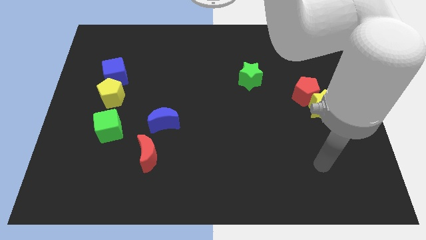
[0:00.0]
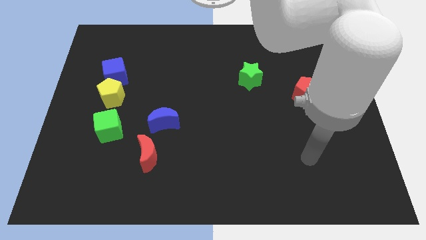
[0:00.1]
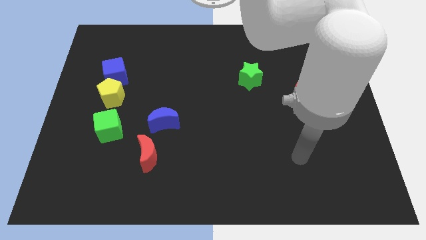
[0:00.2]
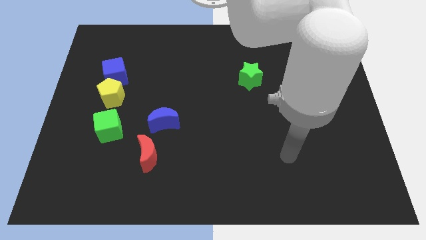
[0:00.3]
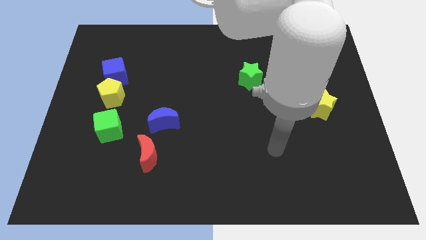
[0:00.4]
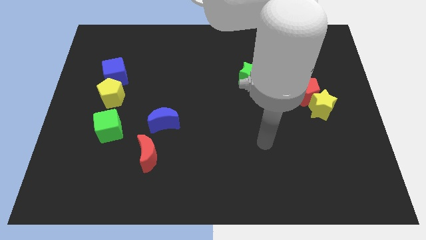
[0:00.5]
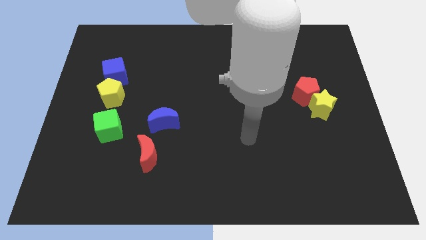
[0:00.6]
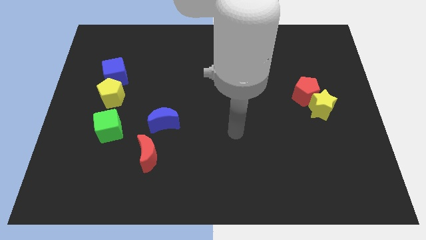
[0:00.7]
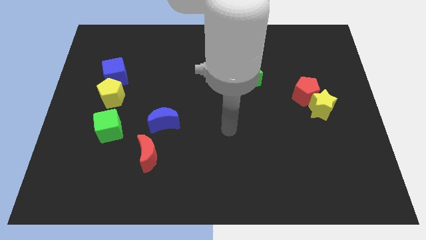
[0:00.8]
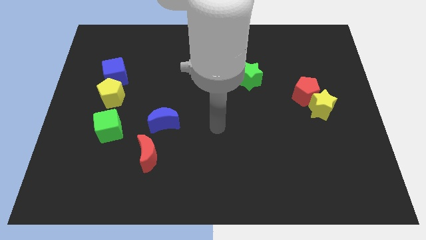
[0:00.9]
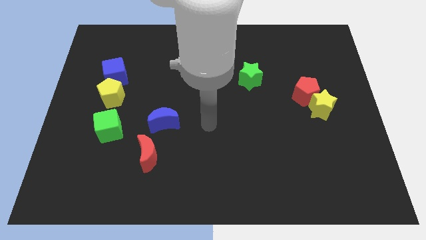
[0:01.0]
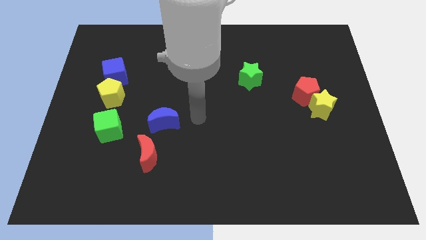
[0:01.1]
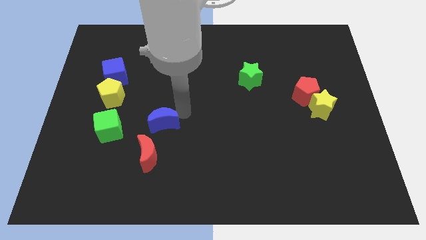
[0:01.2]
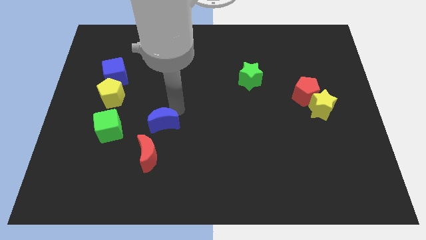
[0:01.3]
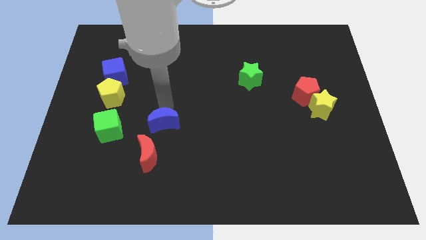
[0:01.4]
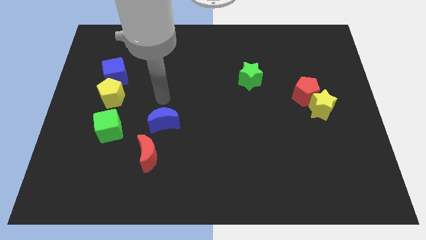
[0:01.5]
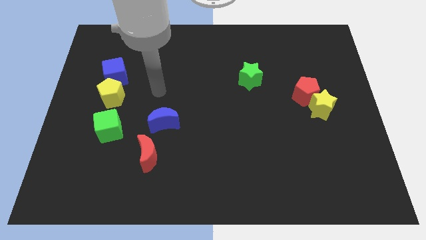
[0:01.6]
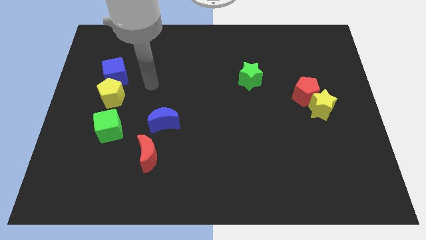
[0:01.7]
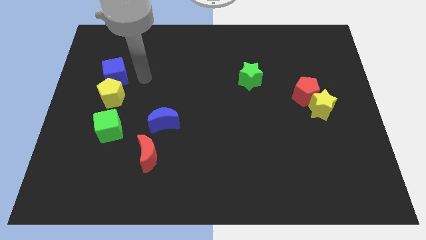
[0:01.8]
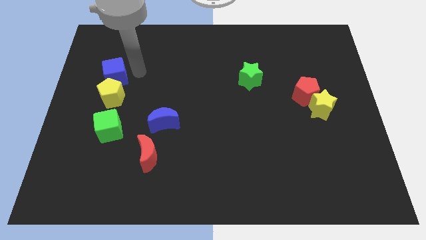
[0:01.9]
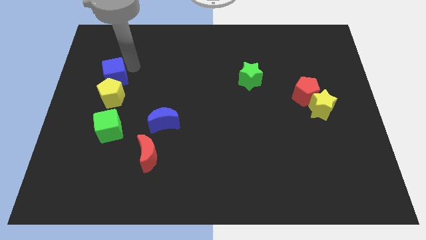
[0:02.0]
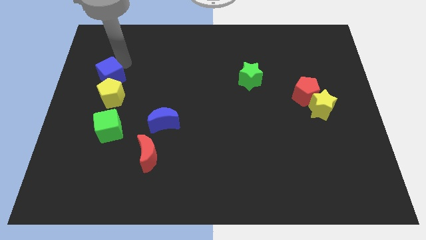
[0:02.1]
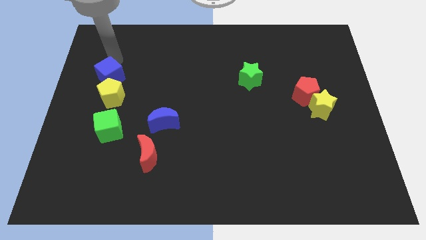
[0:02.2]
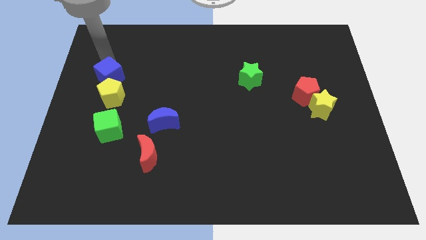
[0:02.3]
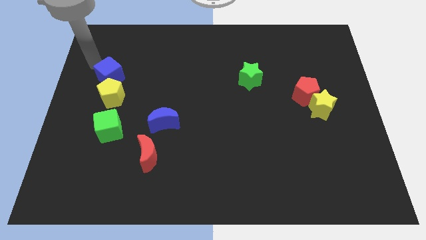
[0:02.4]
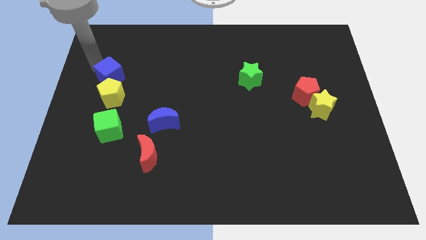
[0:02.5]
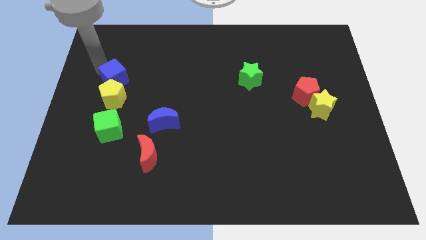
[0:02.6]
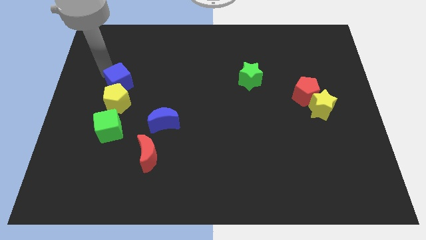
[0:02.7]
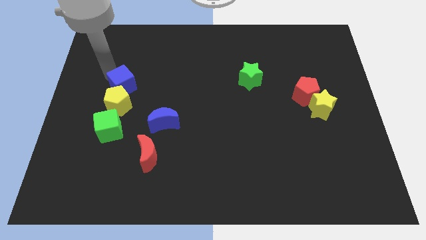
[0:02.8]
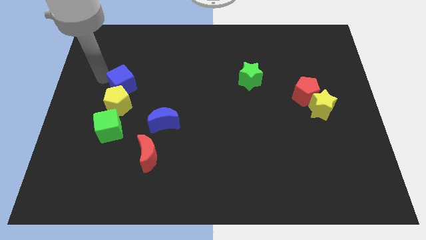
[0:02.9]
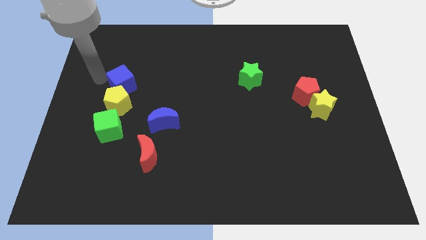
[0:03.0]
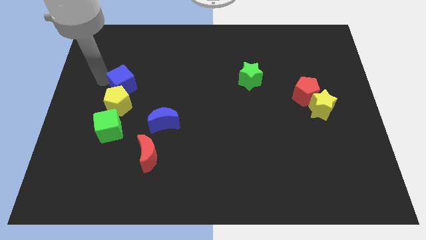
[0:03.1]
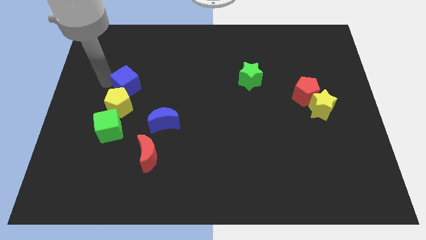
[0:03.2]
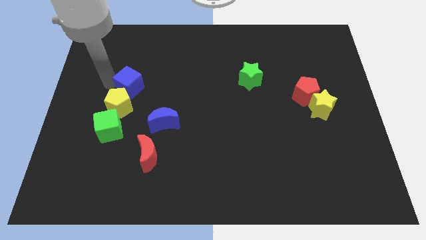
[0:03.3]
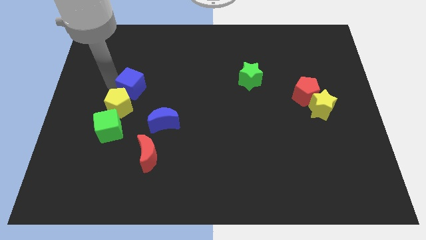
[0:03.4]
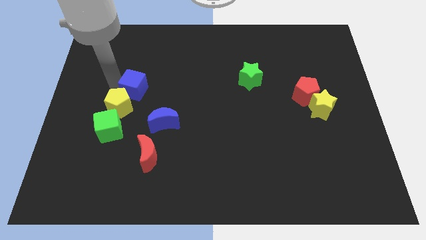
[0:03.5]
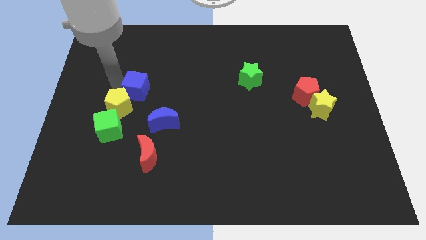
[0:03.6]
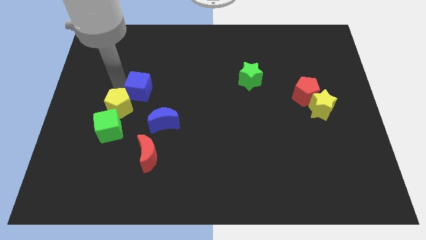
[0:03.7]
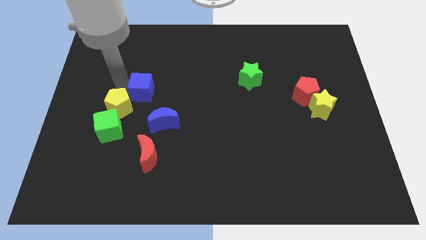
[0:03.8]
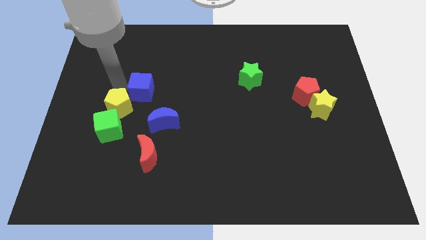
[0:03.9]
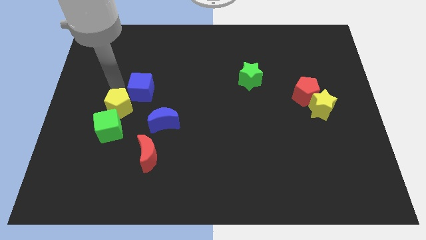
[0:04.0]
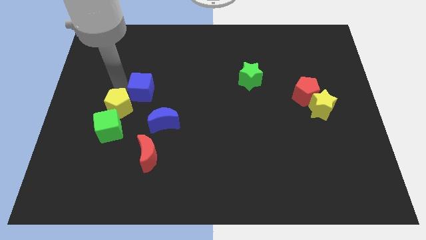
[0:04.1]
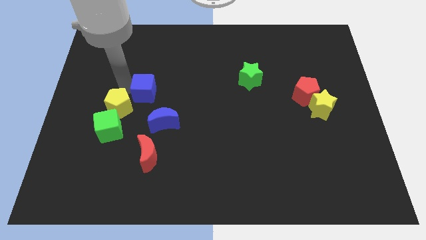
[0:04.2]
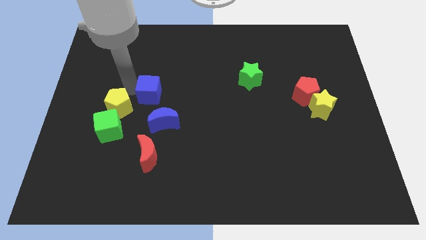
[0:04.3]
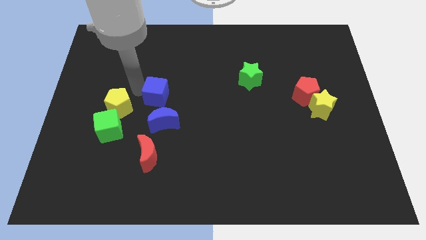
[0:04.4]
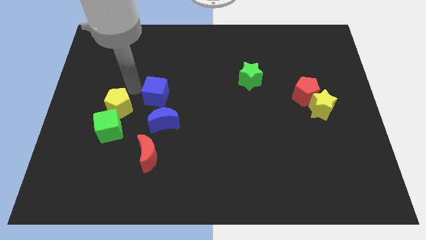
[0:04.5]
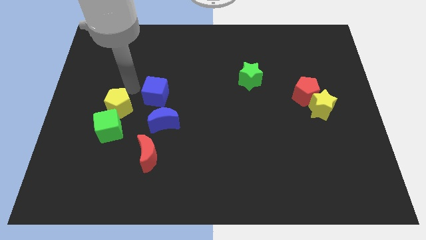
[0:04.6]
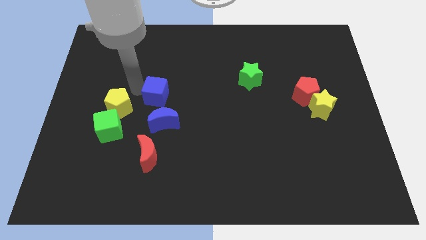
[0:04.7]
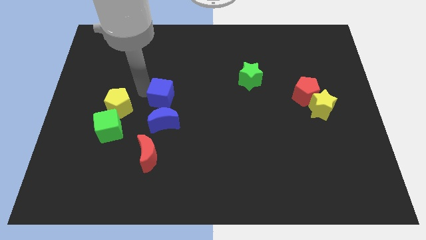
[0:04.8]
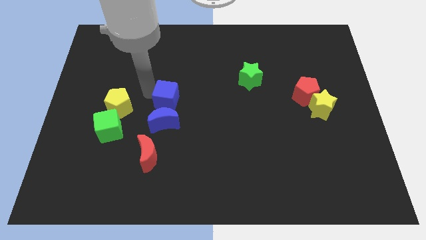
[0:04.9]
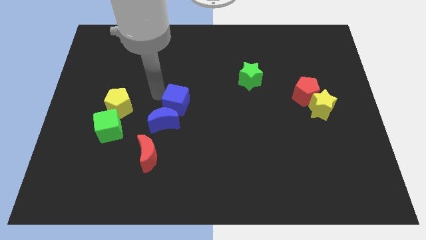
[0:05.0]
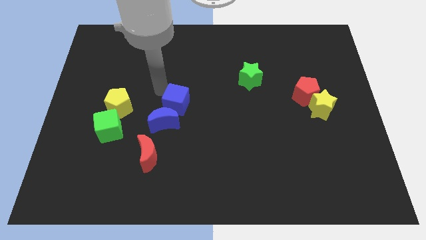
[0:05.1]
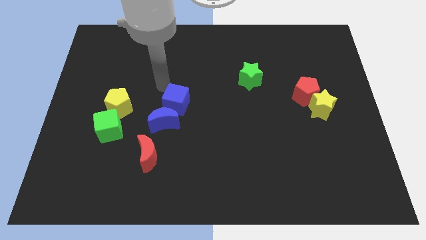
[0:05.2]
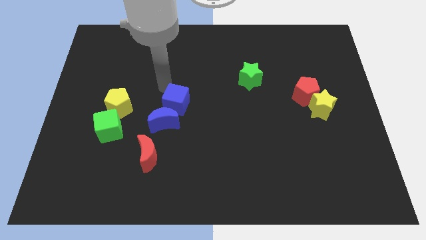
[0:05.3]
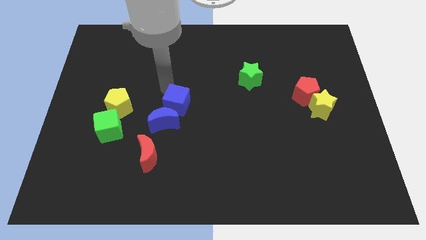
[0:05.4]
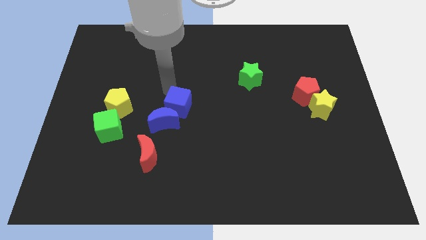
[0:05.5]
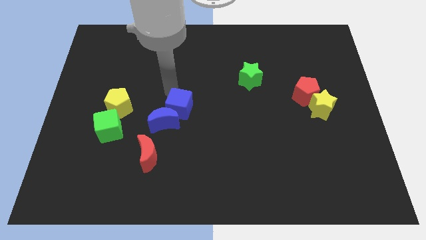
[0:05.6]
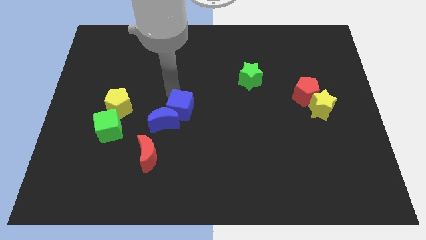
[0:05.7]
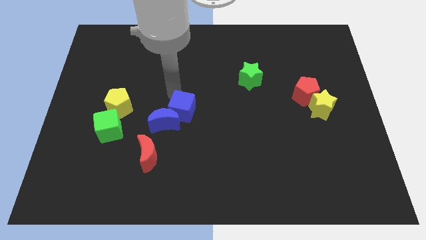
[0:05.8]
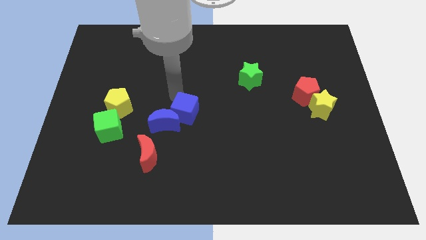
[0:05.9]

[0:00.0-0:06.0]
push the blue cube down and right

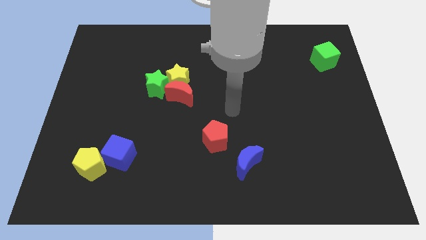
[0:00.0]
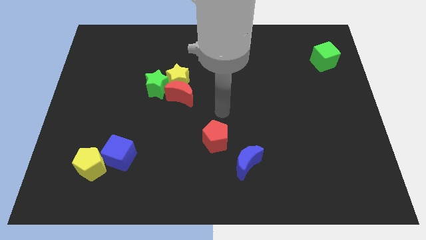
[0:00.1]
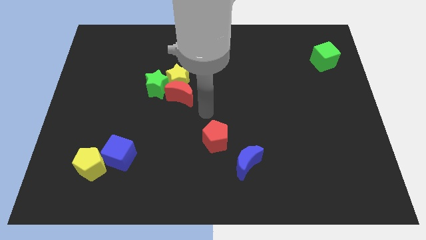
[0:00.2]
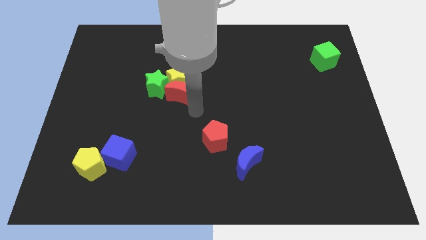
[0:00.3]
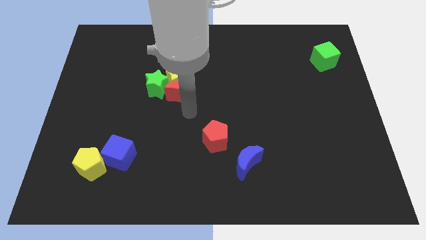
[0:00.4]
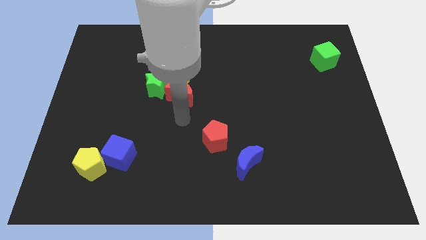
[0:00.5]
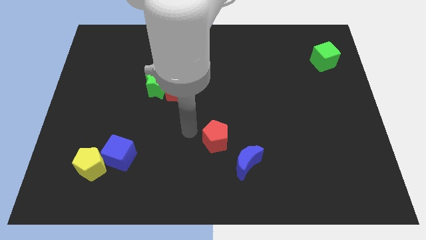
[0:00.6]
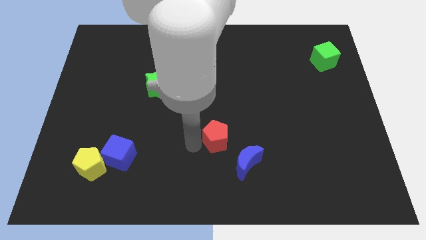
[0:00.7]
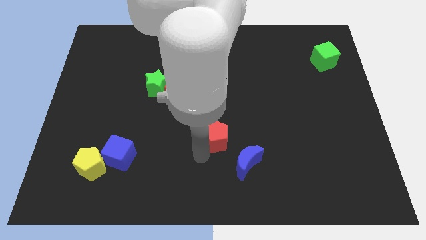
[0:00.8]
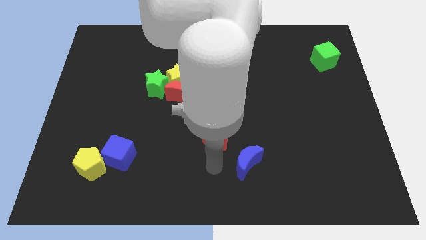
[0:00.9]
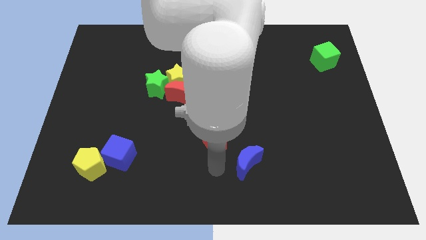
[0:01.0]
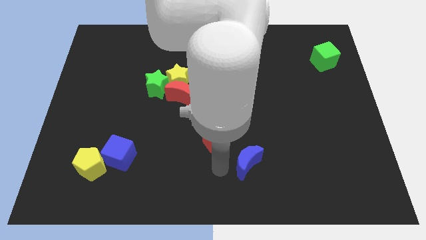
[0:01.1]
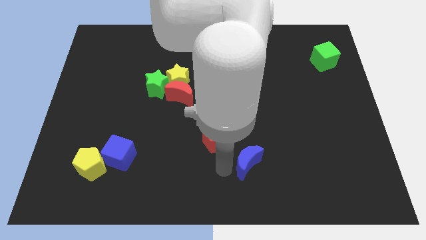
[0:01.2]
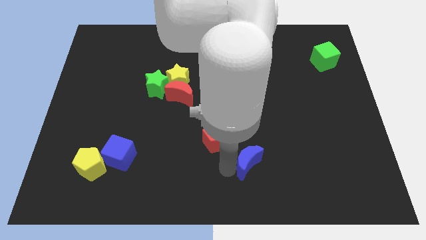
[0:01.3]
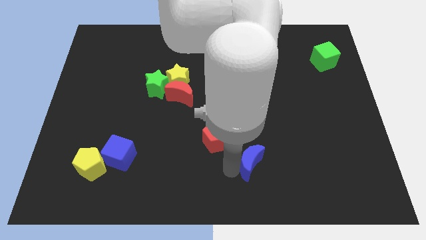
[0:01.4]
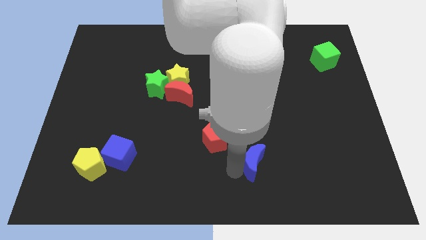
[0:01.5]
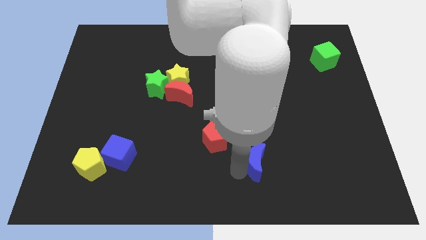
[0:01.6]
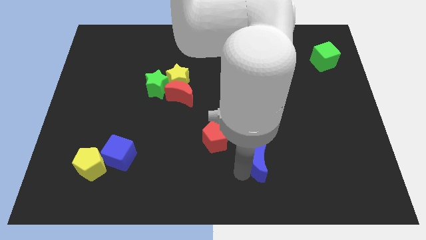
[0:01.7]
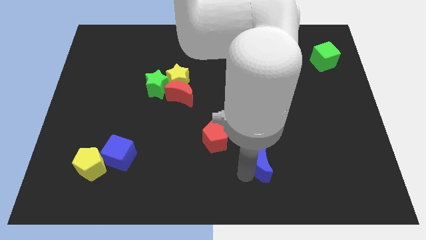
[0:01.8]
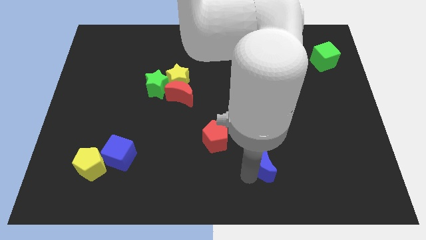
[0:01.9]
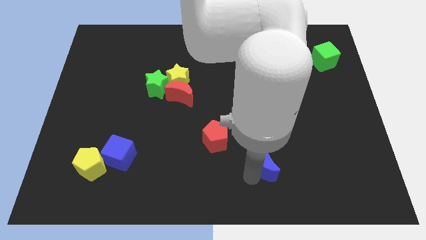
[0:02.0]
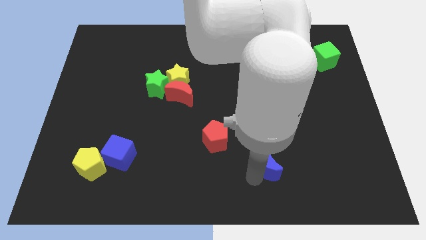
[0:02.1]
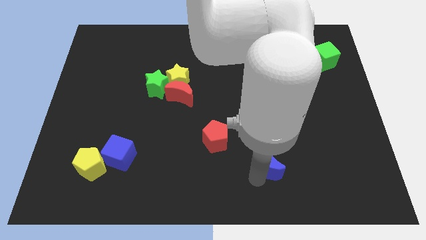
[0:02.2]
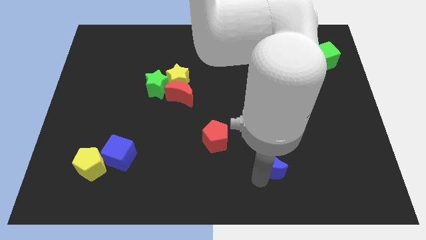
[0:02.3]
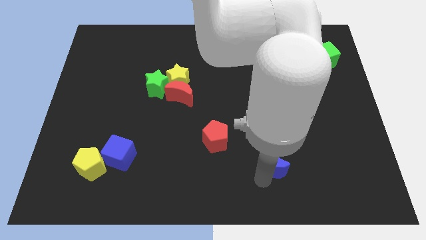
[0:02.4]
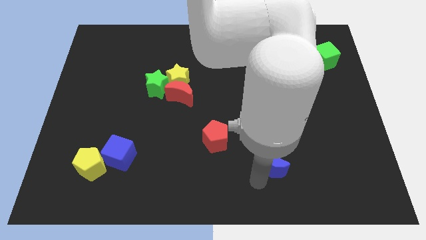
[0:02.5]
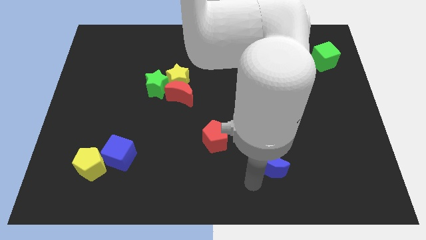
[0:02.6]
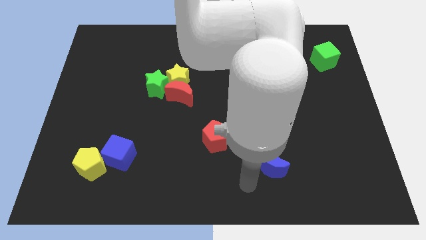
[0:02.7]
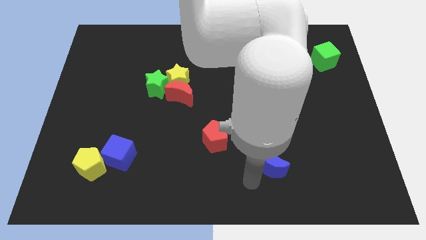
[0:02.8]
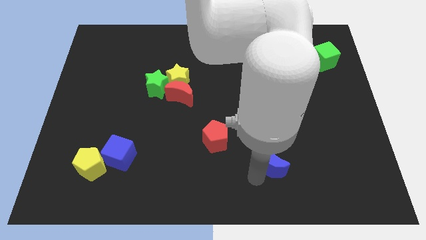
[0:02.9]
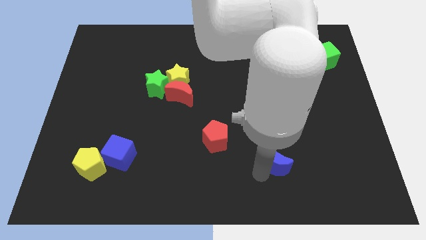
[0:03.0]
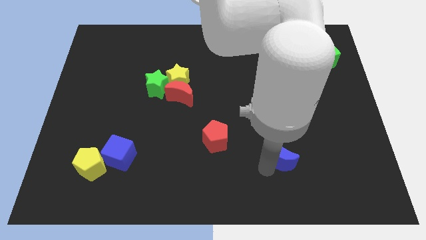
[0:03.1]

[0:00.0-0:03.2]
move the blue moon somewhat right
